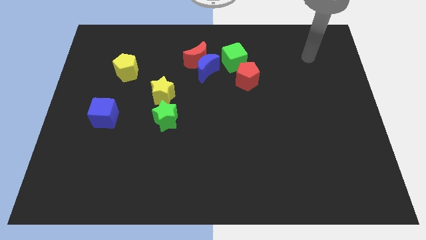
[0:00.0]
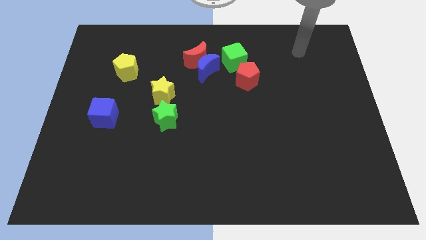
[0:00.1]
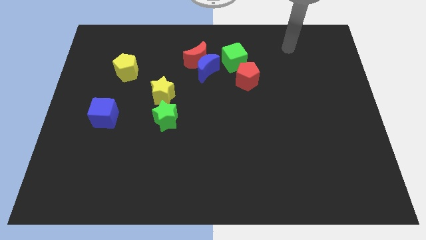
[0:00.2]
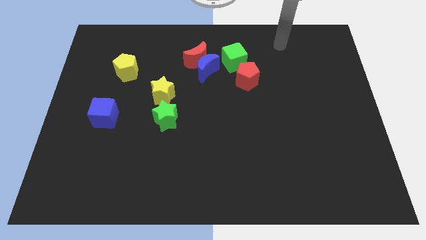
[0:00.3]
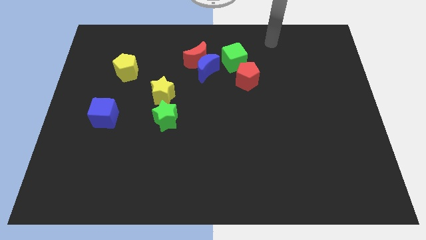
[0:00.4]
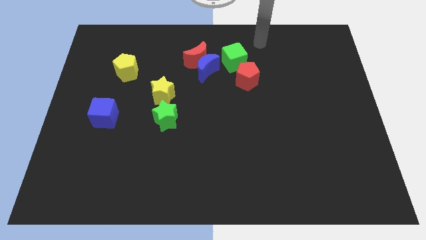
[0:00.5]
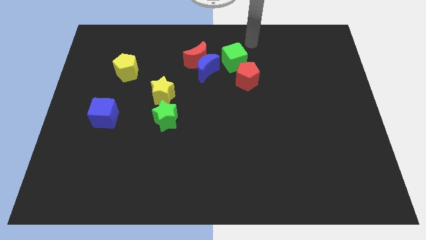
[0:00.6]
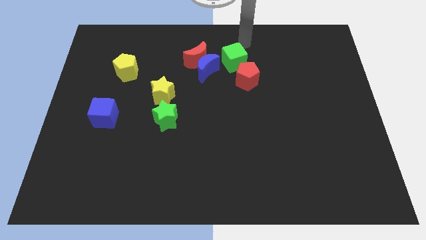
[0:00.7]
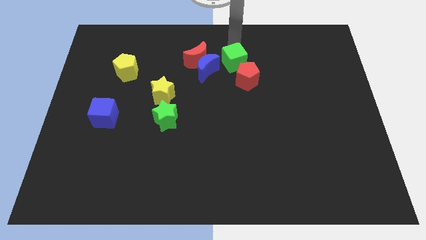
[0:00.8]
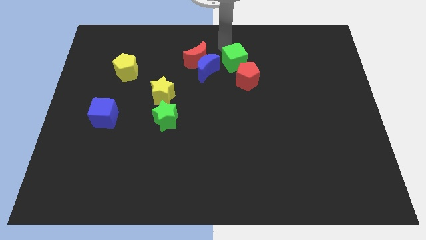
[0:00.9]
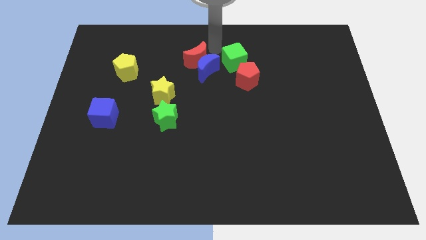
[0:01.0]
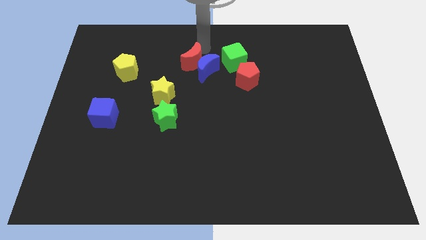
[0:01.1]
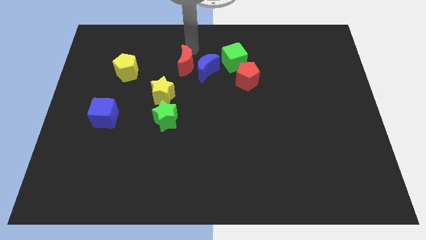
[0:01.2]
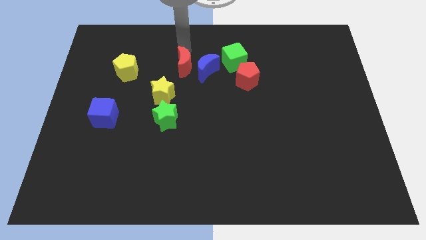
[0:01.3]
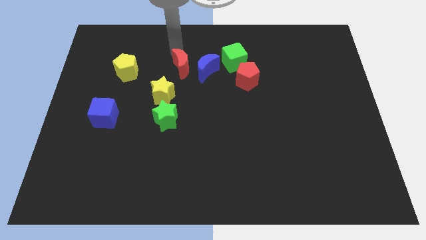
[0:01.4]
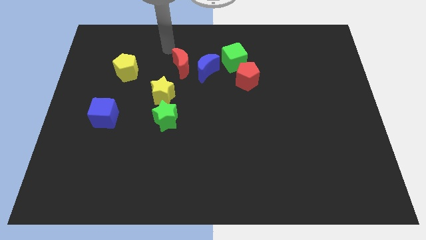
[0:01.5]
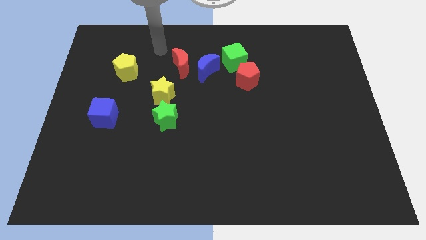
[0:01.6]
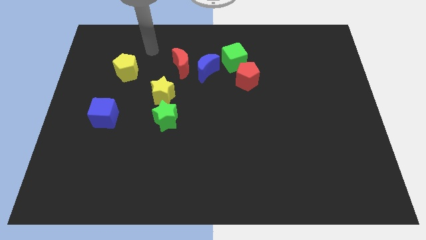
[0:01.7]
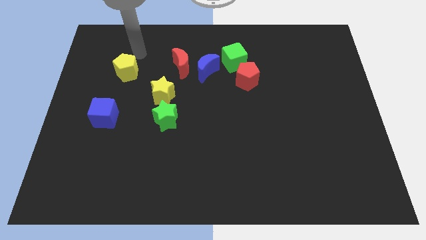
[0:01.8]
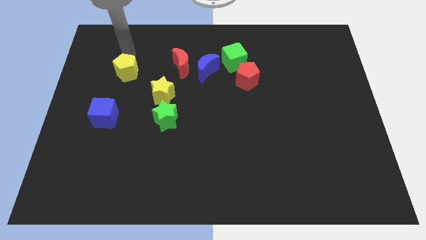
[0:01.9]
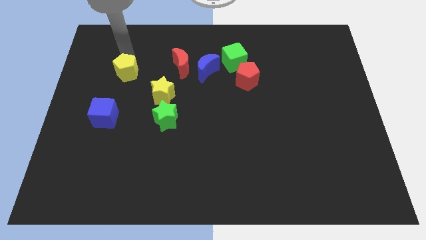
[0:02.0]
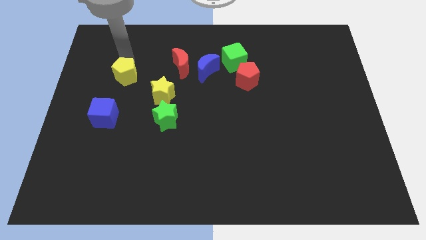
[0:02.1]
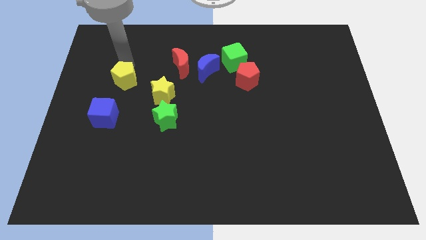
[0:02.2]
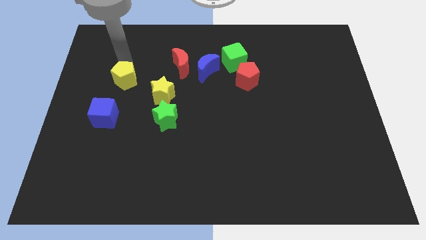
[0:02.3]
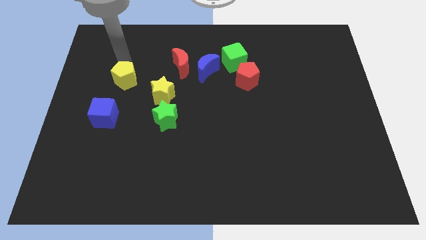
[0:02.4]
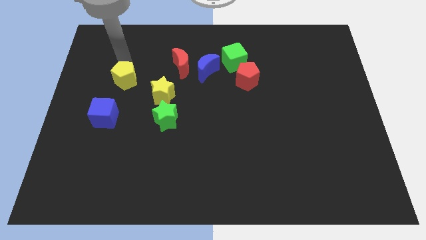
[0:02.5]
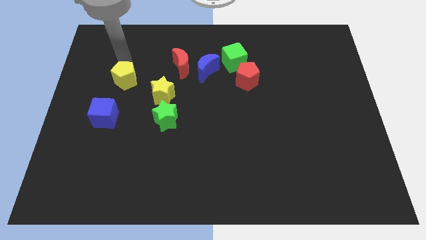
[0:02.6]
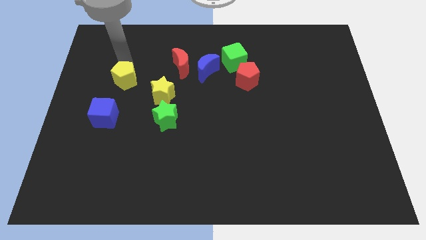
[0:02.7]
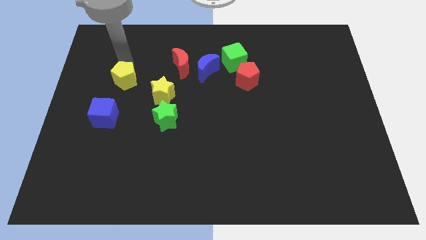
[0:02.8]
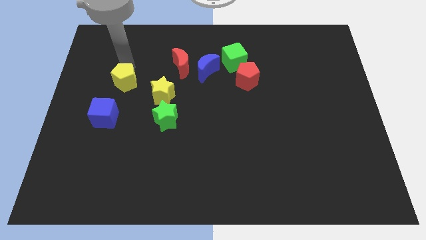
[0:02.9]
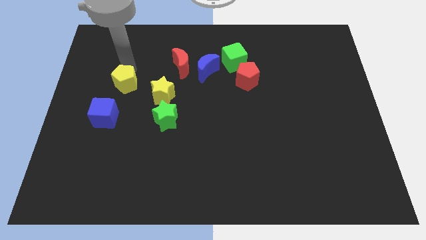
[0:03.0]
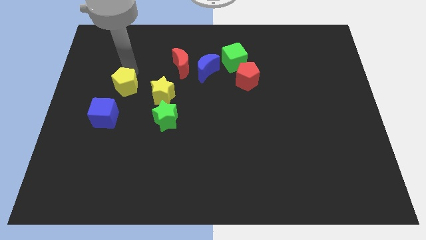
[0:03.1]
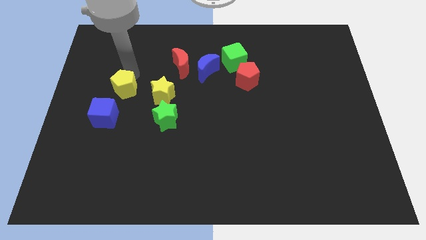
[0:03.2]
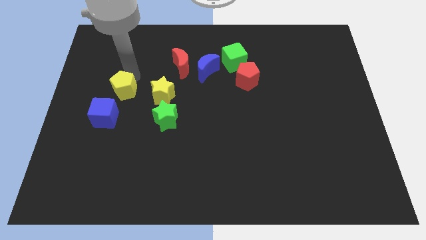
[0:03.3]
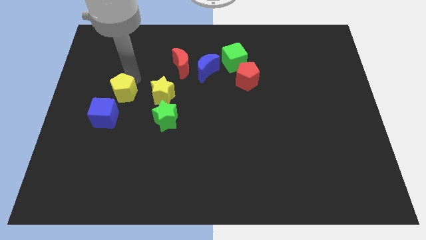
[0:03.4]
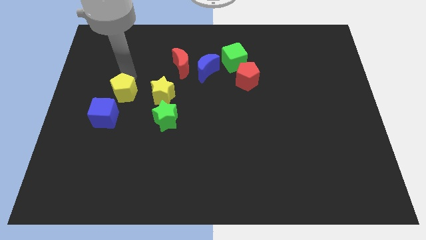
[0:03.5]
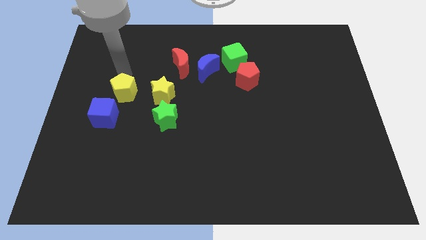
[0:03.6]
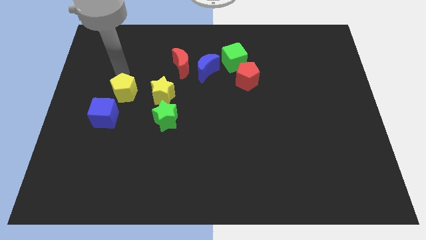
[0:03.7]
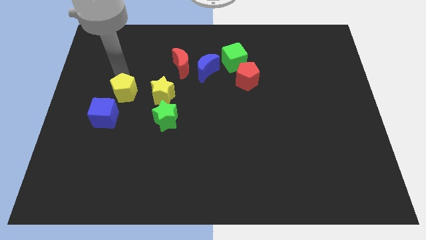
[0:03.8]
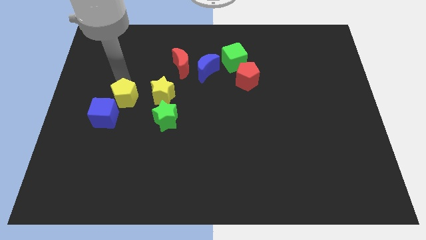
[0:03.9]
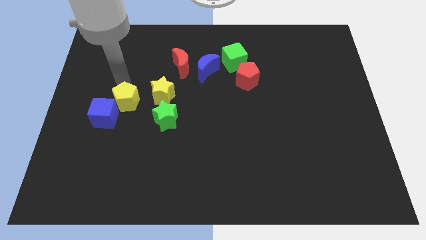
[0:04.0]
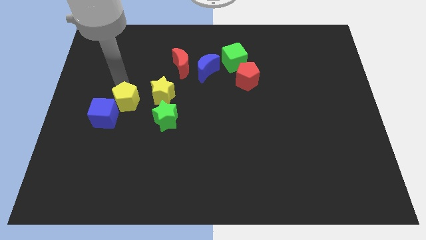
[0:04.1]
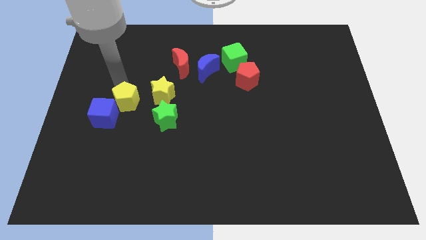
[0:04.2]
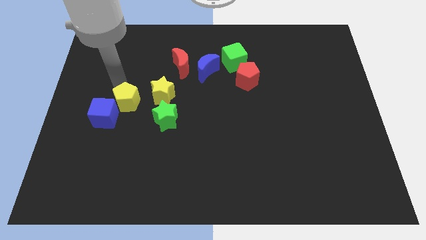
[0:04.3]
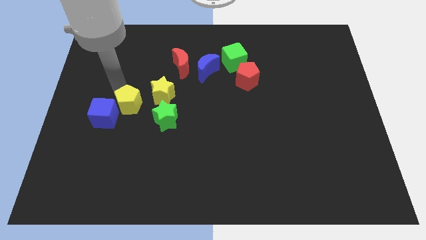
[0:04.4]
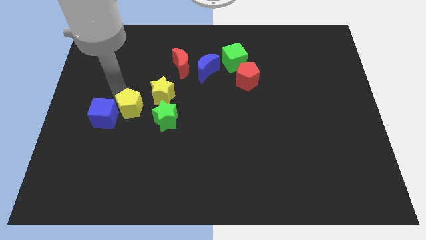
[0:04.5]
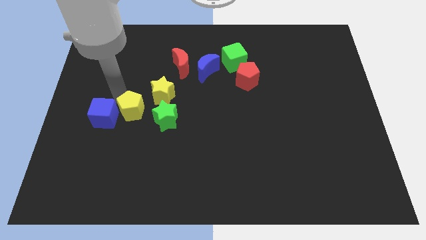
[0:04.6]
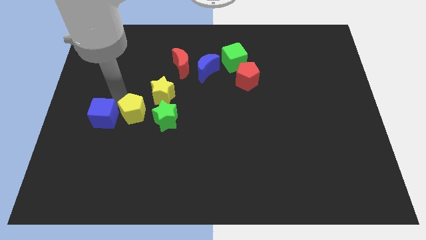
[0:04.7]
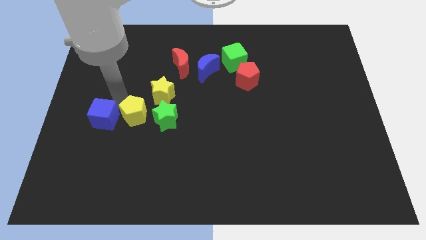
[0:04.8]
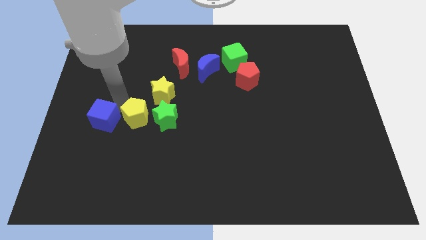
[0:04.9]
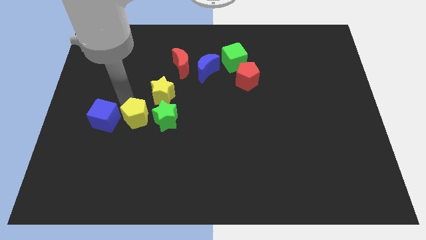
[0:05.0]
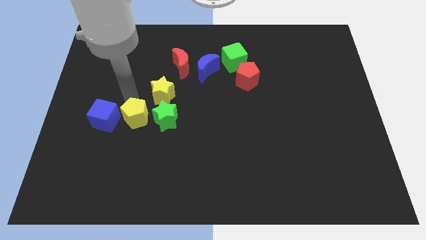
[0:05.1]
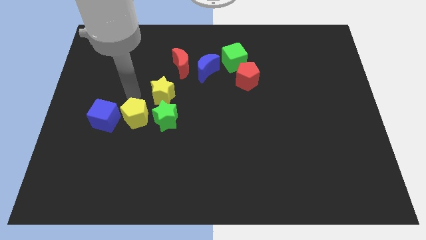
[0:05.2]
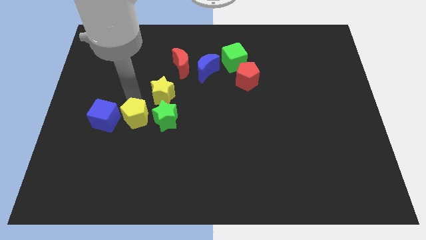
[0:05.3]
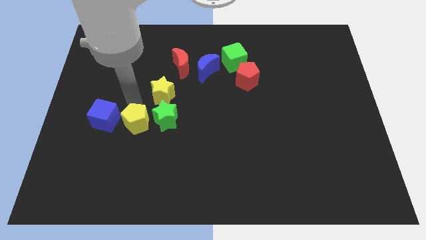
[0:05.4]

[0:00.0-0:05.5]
move the yellow pentagon diagonally down and to the left of the green star

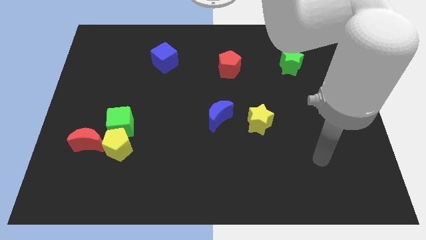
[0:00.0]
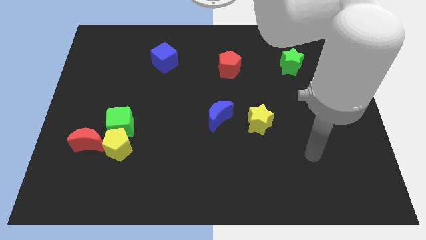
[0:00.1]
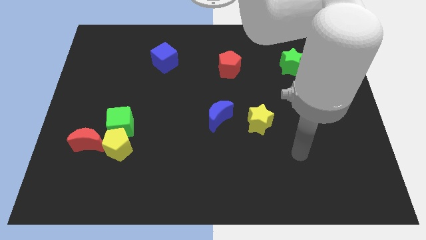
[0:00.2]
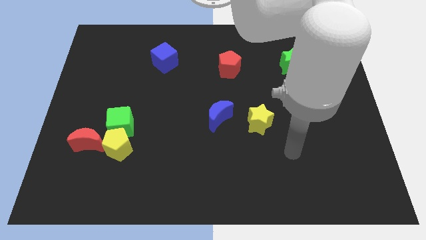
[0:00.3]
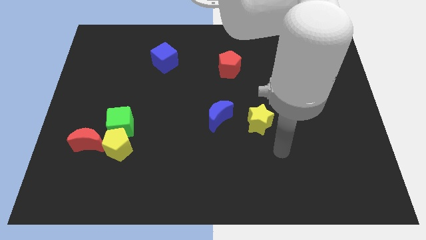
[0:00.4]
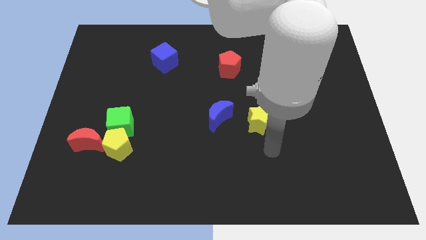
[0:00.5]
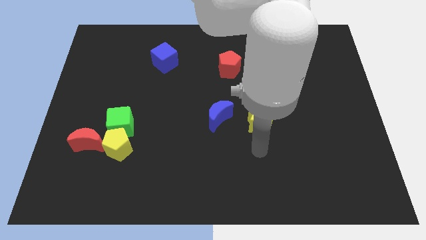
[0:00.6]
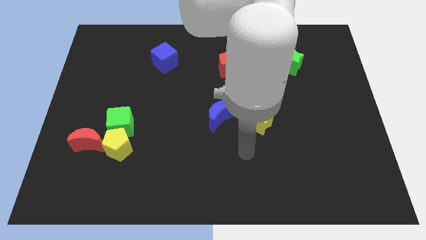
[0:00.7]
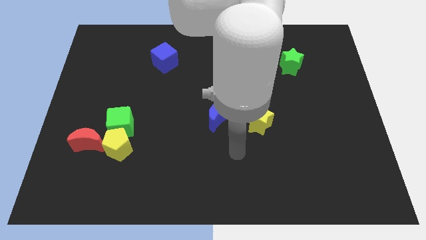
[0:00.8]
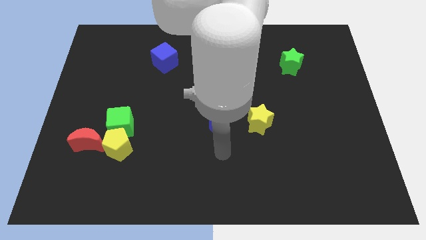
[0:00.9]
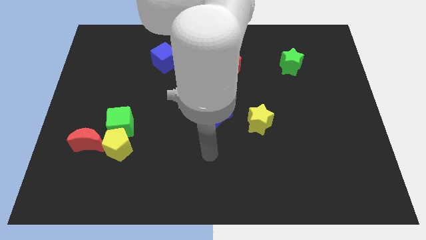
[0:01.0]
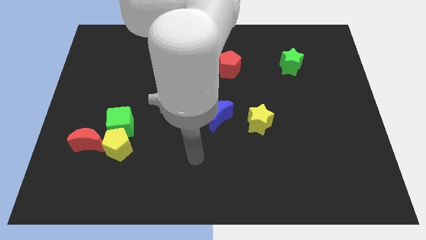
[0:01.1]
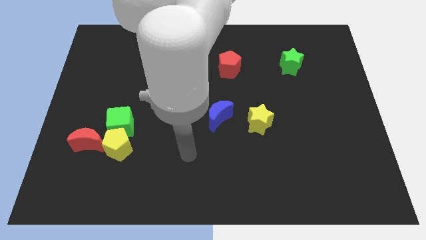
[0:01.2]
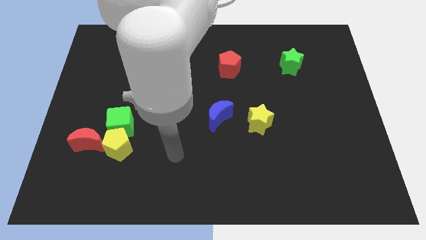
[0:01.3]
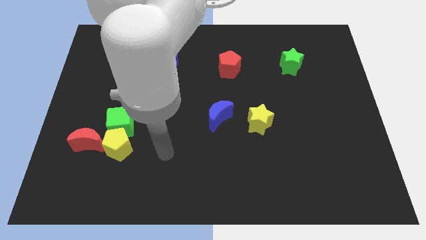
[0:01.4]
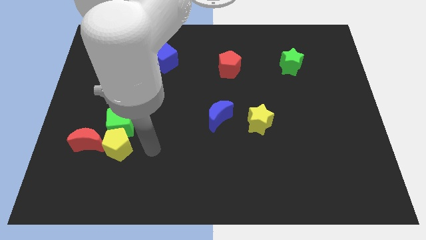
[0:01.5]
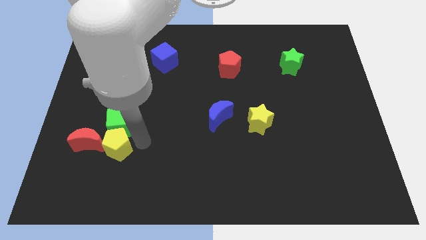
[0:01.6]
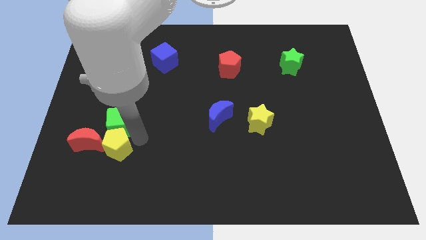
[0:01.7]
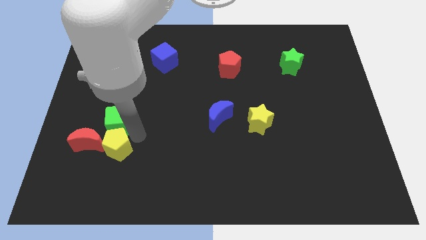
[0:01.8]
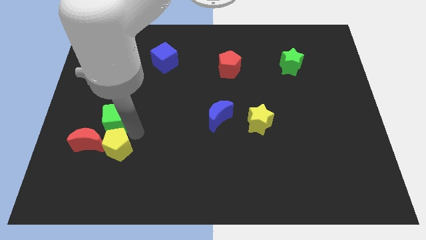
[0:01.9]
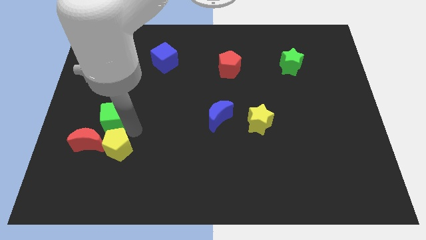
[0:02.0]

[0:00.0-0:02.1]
move the green cube above the red moon
